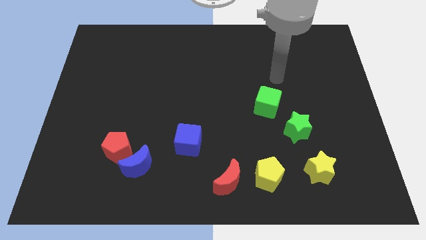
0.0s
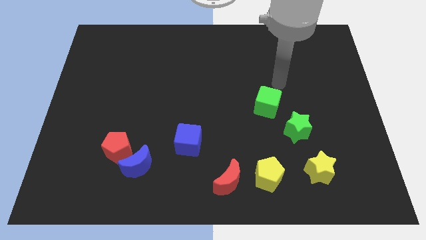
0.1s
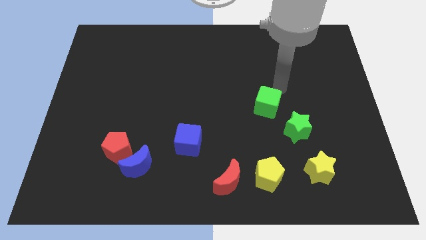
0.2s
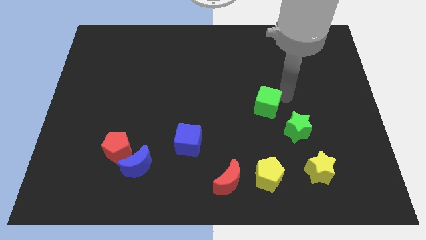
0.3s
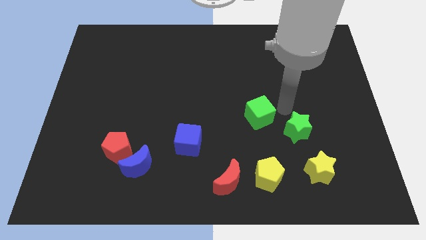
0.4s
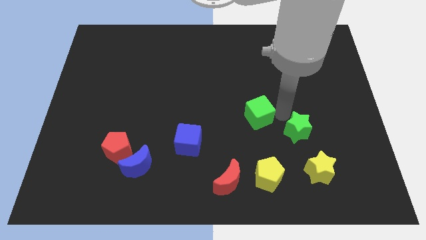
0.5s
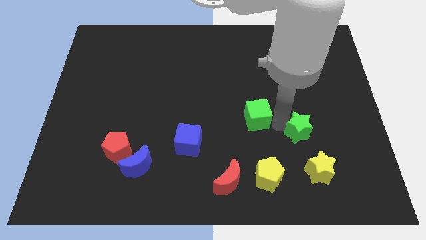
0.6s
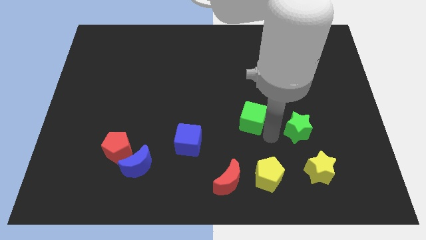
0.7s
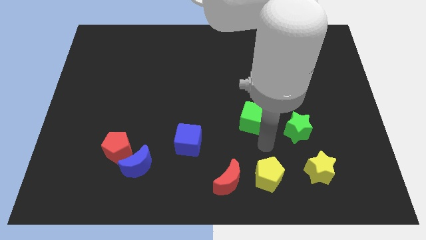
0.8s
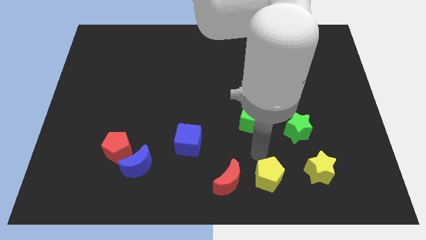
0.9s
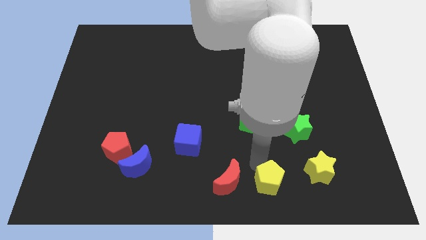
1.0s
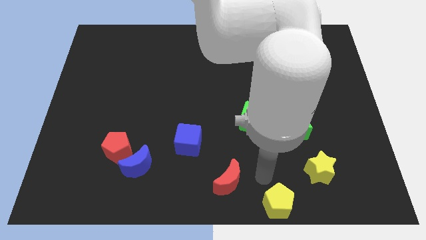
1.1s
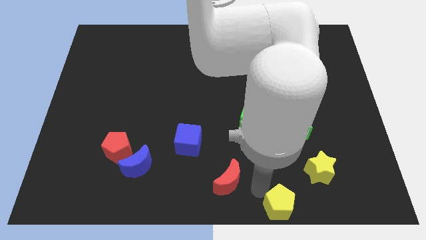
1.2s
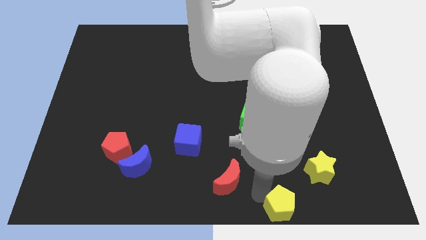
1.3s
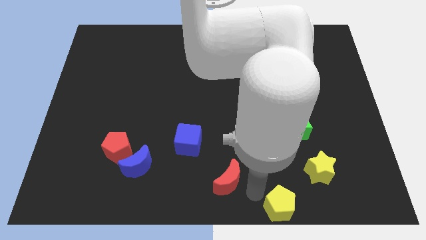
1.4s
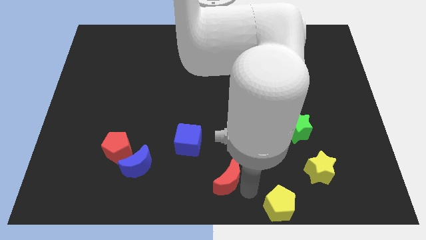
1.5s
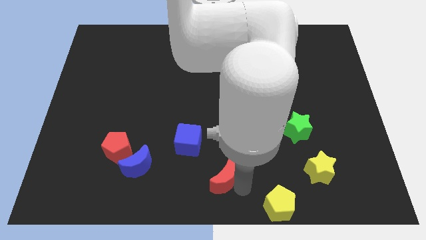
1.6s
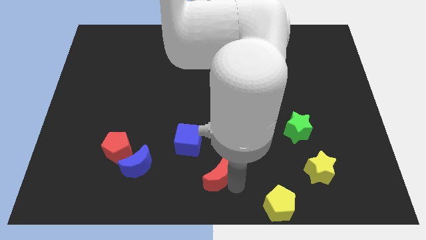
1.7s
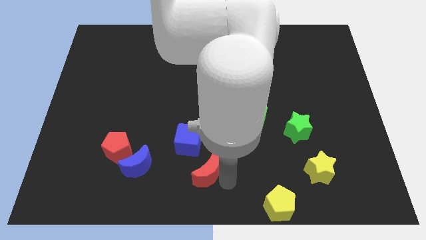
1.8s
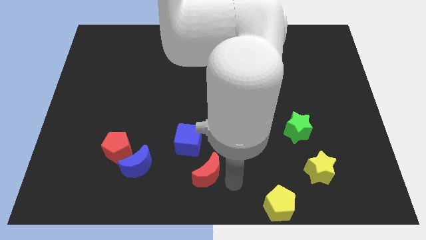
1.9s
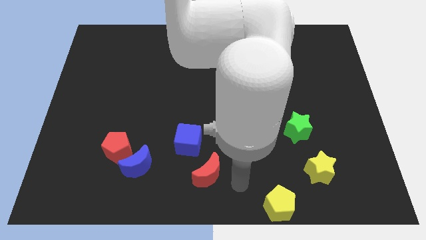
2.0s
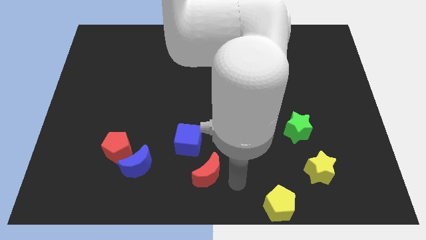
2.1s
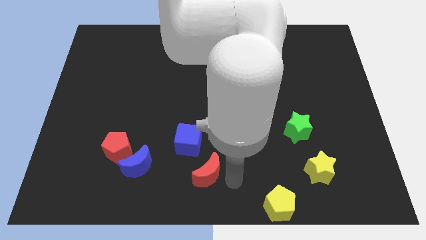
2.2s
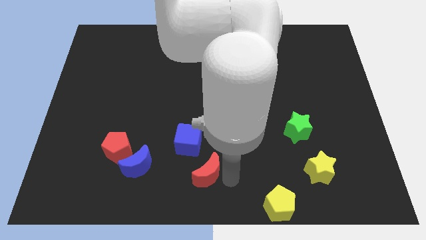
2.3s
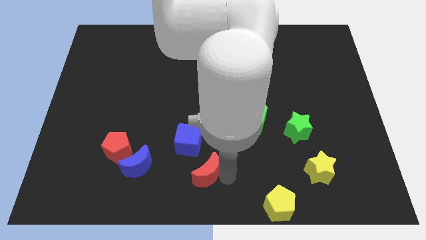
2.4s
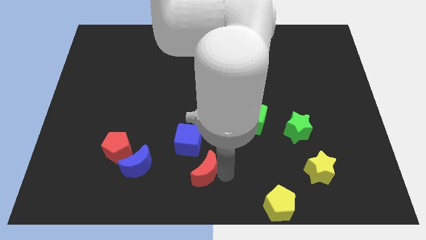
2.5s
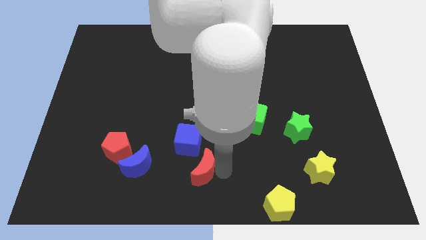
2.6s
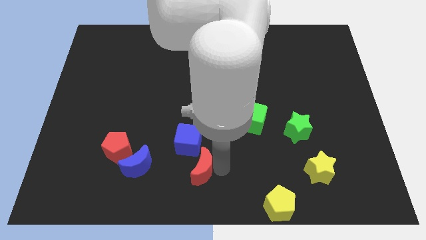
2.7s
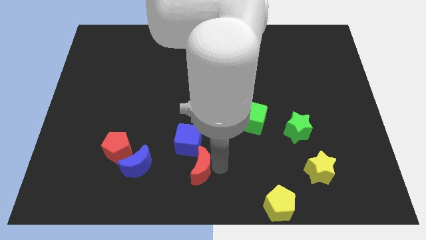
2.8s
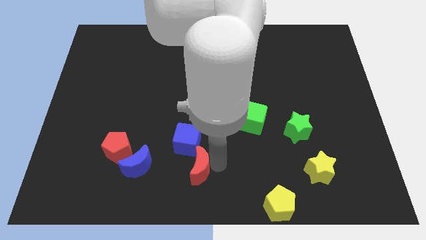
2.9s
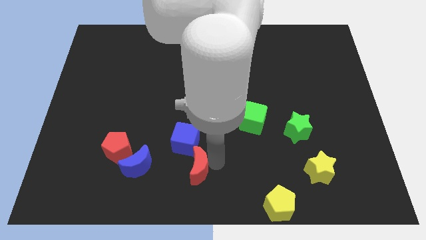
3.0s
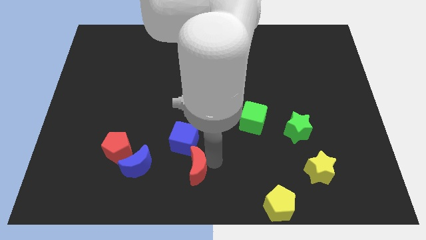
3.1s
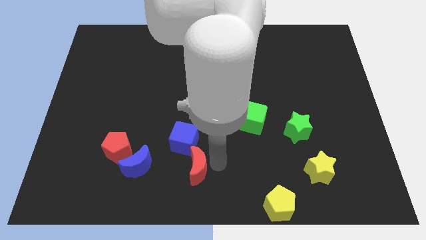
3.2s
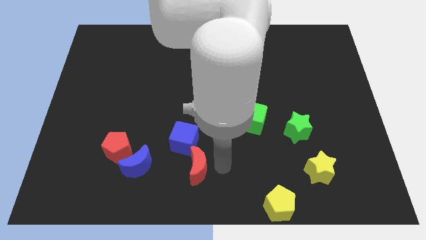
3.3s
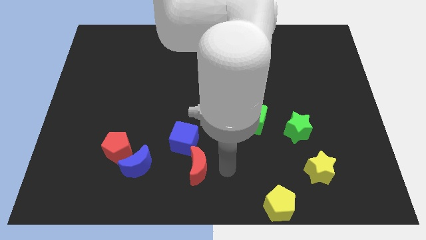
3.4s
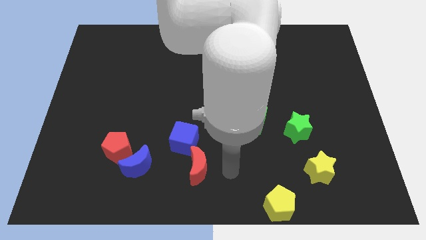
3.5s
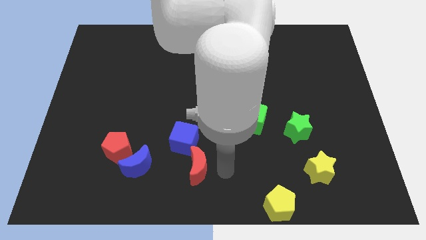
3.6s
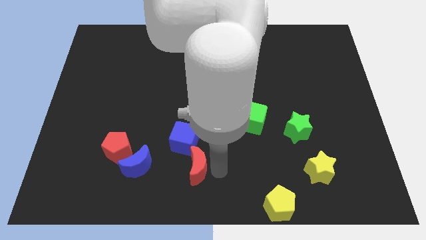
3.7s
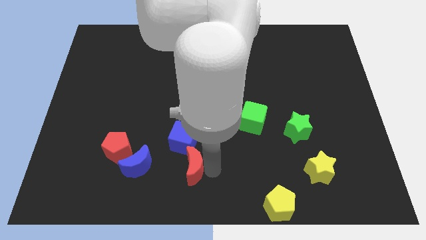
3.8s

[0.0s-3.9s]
move the red moon diagonally upwards and left a little

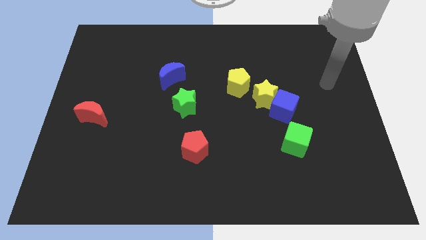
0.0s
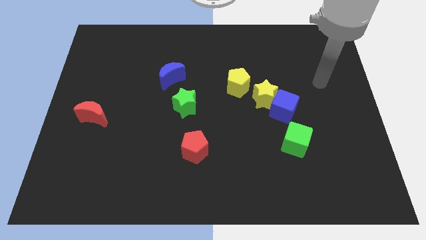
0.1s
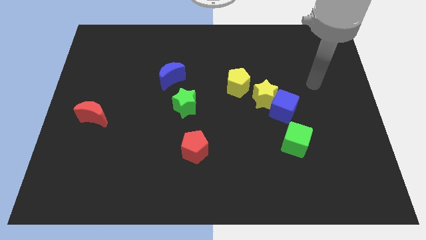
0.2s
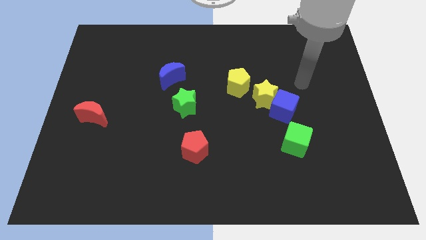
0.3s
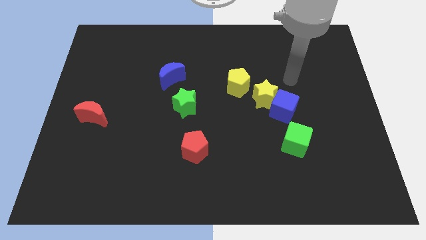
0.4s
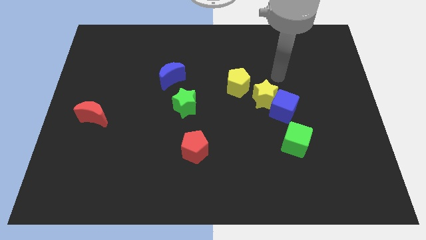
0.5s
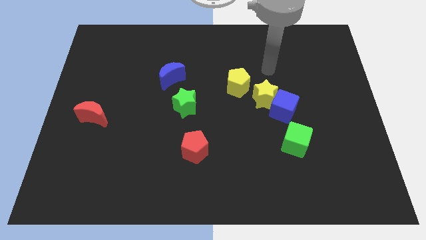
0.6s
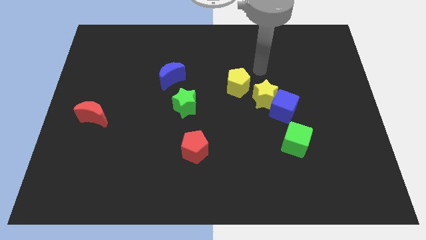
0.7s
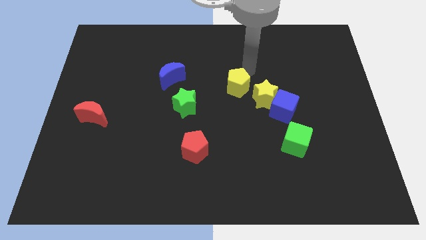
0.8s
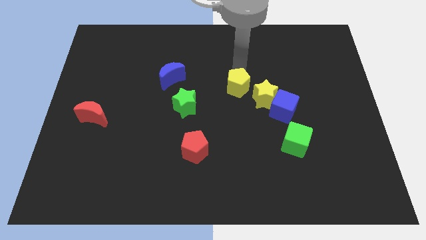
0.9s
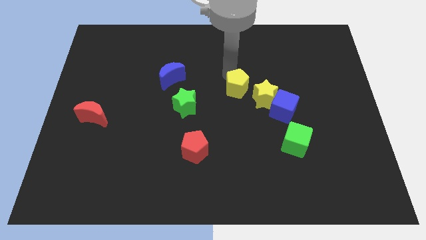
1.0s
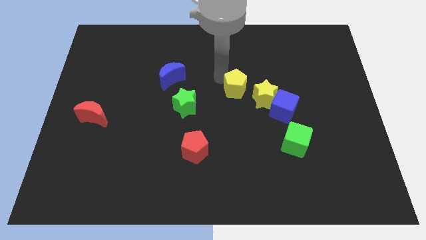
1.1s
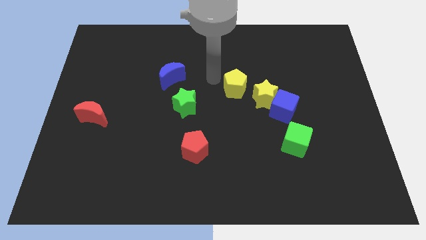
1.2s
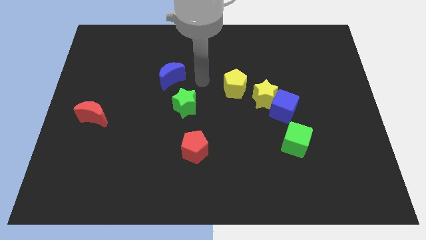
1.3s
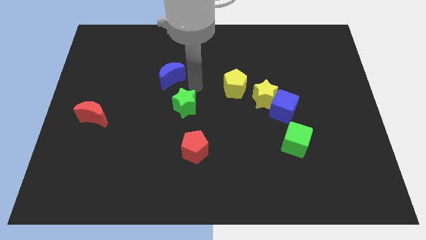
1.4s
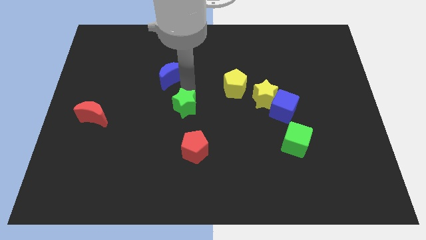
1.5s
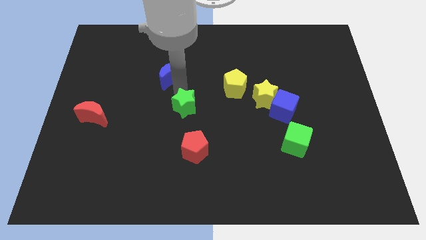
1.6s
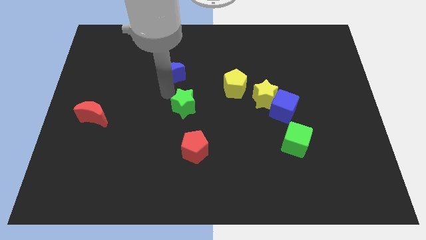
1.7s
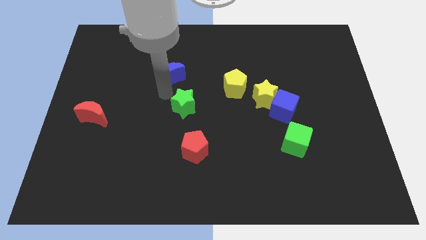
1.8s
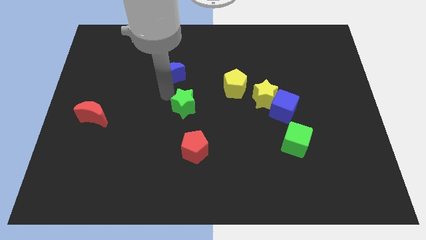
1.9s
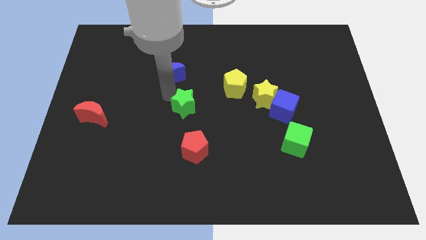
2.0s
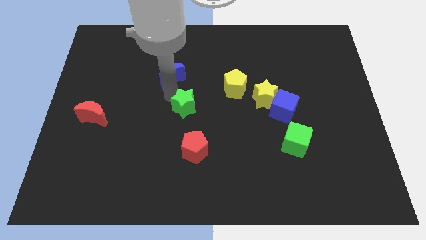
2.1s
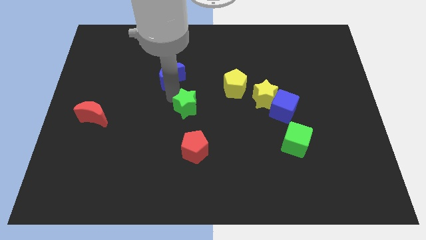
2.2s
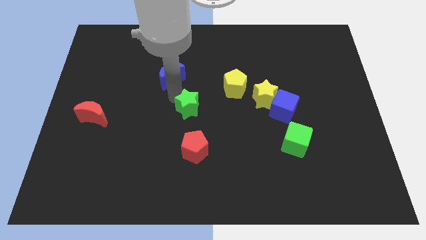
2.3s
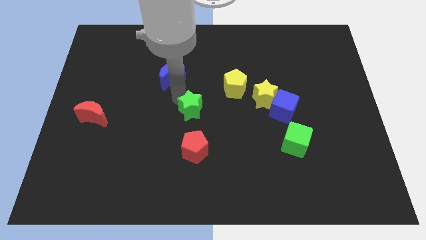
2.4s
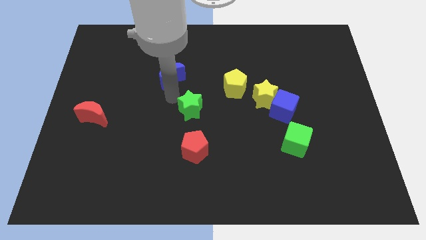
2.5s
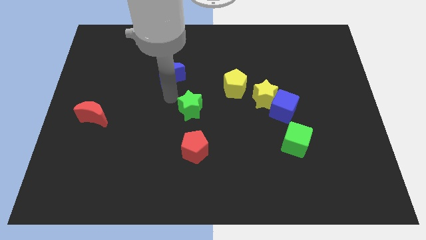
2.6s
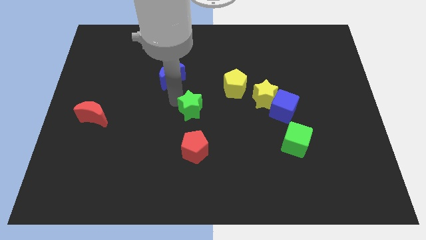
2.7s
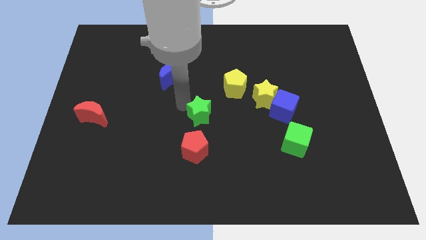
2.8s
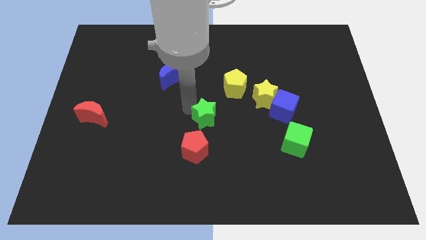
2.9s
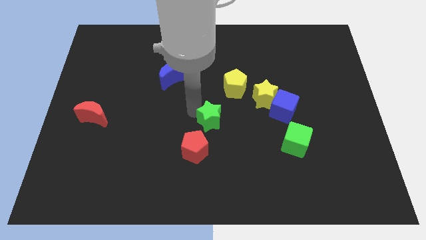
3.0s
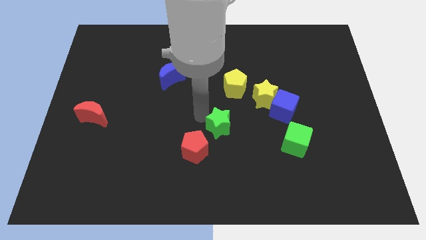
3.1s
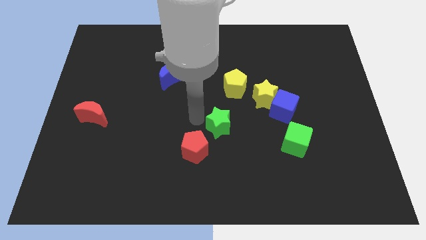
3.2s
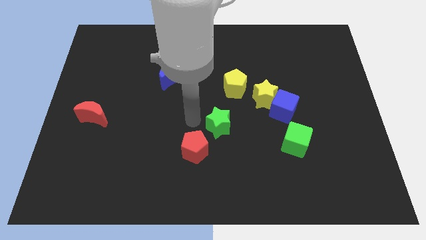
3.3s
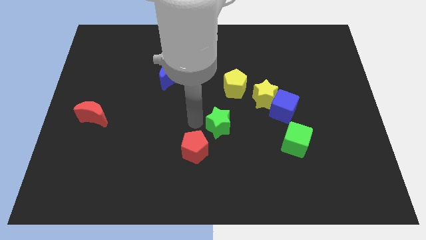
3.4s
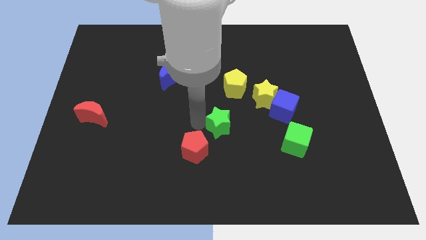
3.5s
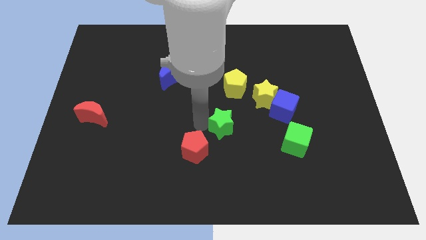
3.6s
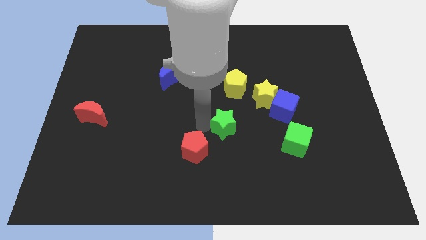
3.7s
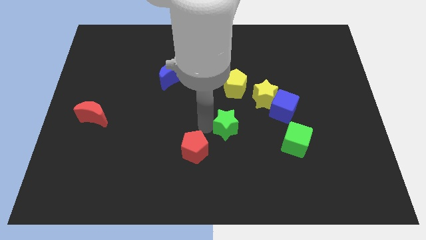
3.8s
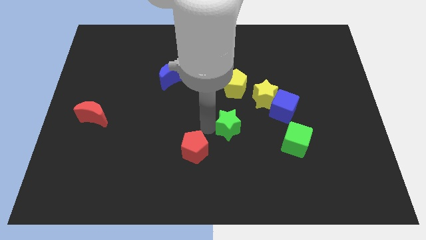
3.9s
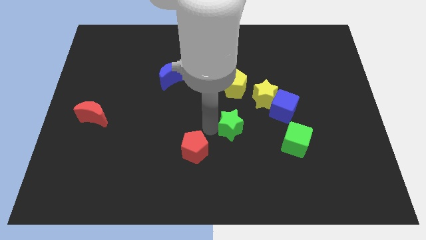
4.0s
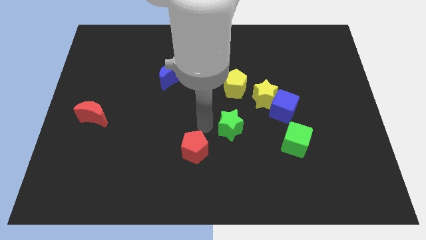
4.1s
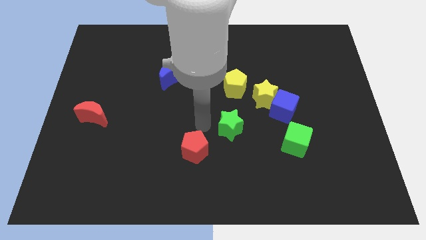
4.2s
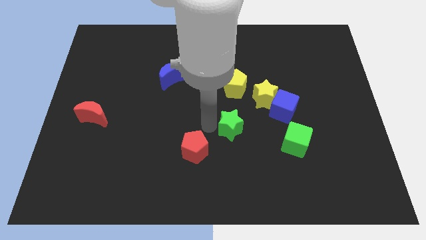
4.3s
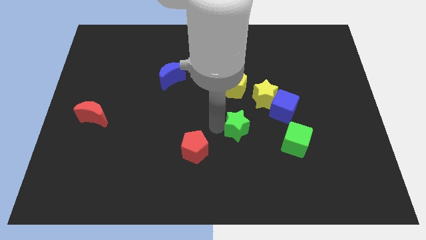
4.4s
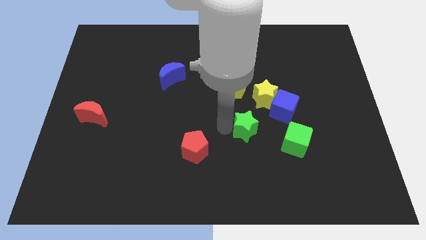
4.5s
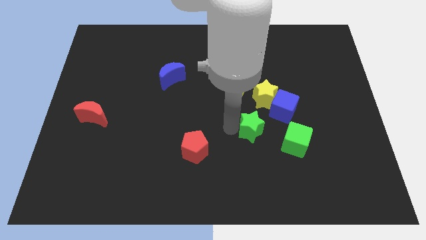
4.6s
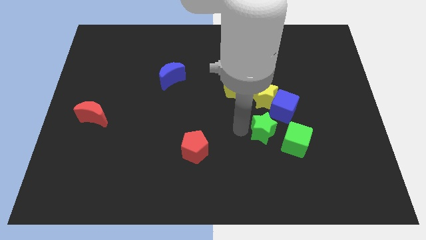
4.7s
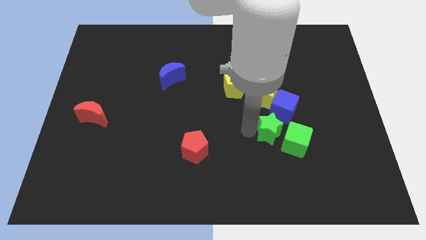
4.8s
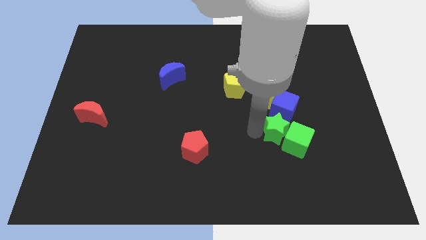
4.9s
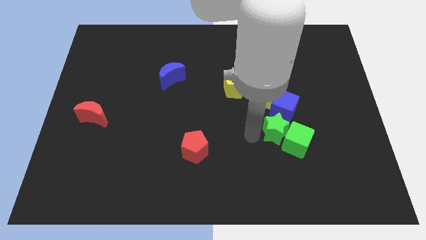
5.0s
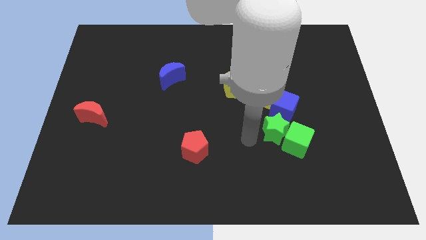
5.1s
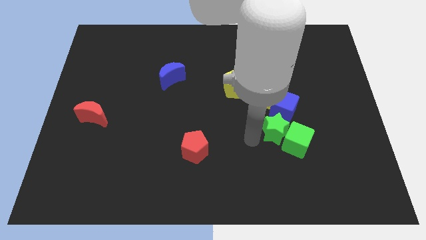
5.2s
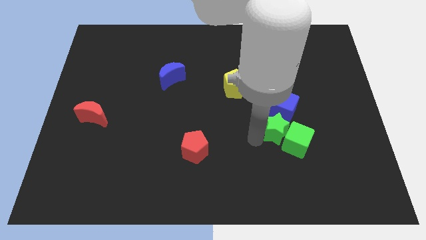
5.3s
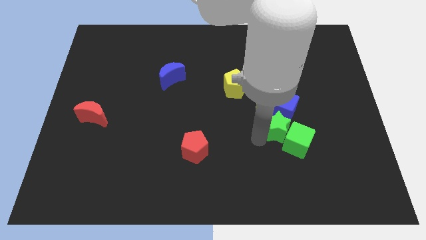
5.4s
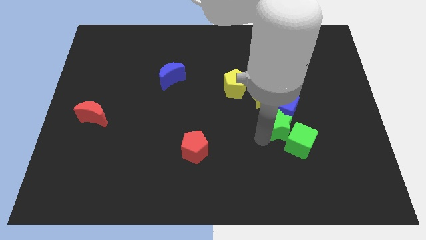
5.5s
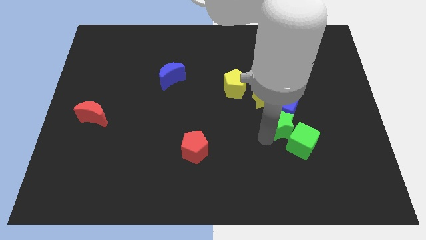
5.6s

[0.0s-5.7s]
move the green star right
